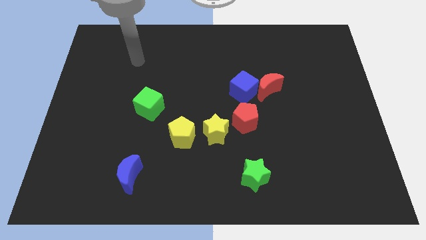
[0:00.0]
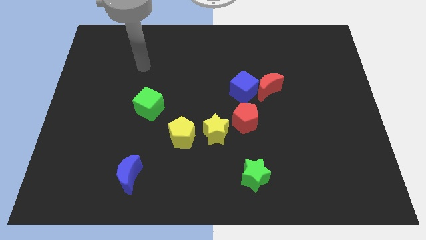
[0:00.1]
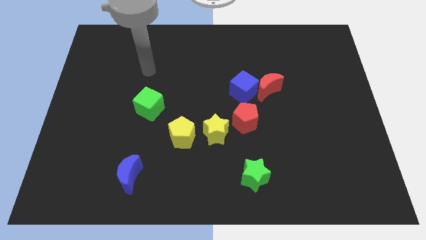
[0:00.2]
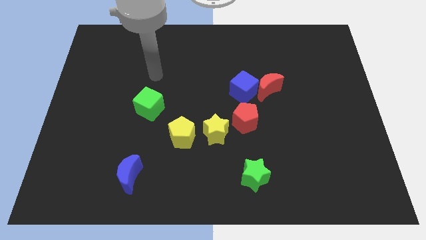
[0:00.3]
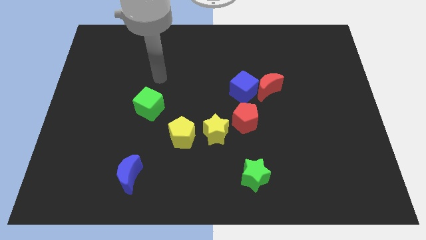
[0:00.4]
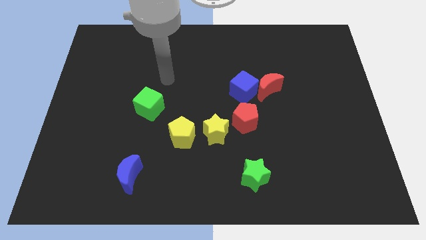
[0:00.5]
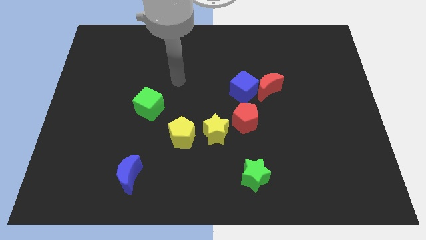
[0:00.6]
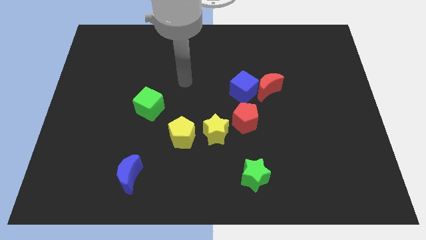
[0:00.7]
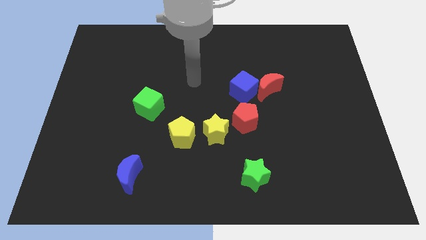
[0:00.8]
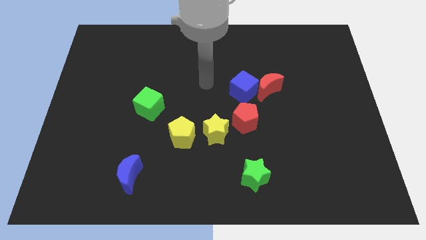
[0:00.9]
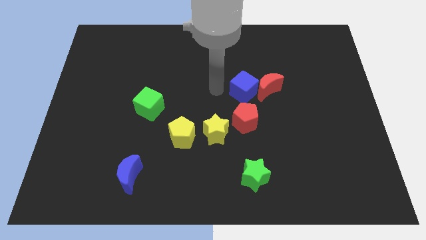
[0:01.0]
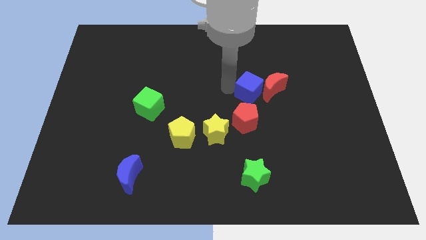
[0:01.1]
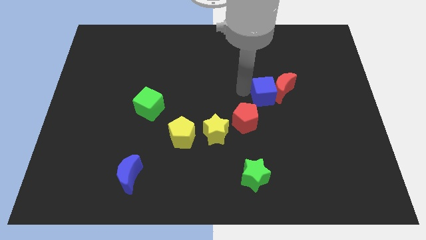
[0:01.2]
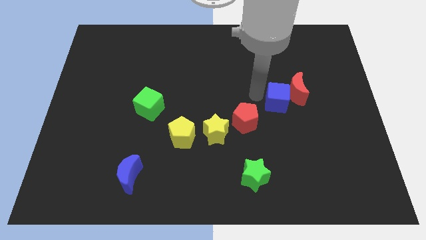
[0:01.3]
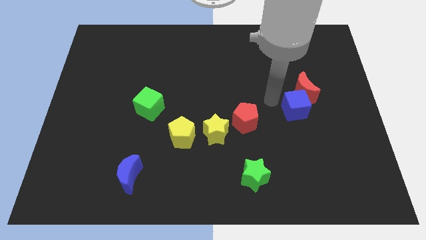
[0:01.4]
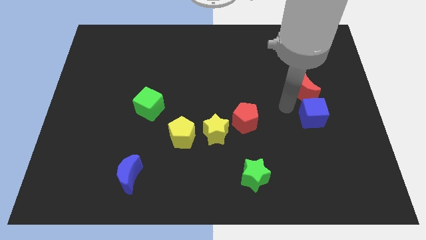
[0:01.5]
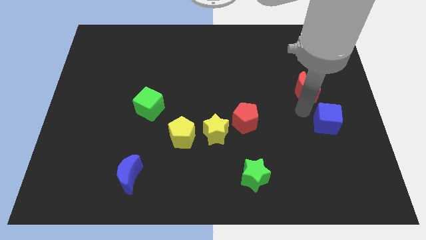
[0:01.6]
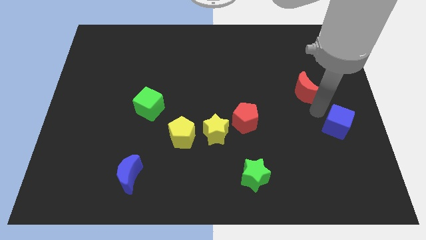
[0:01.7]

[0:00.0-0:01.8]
pull the red moon apart from the blue cube

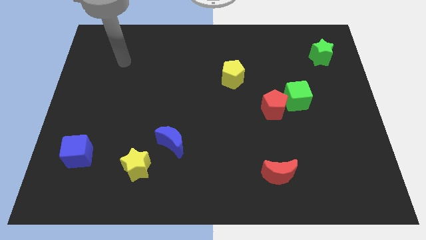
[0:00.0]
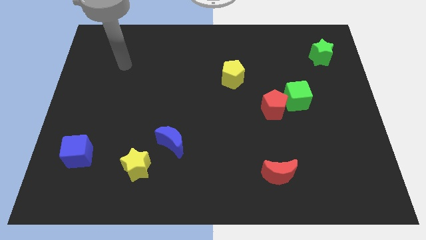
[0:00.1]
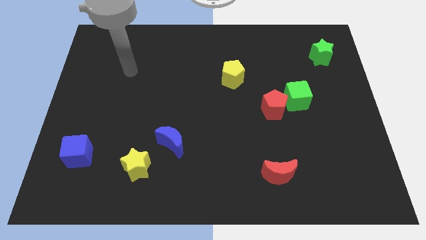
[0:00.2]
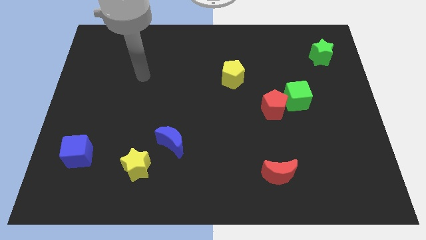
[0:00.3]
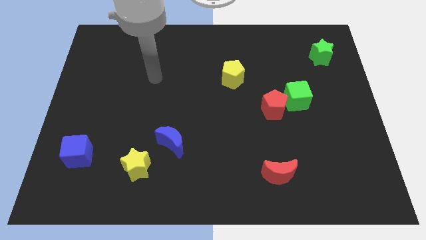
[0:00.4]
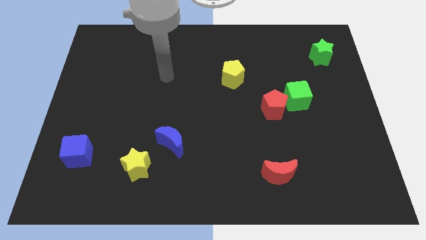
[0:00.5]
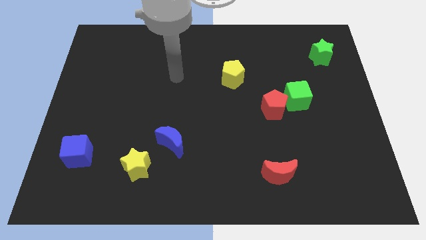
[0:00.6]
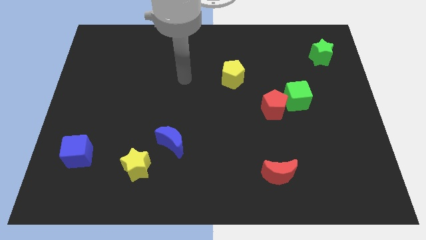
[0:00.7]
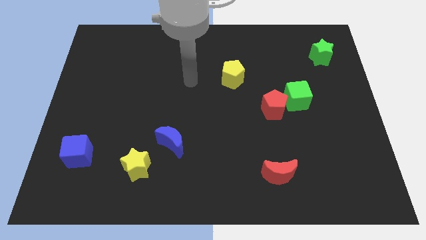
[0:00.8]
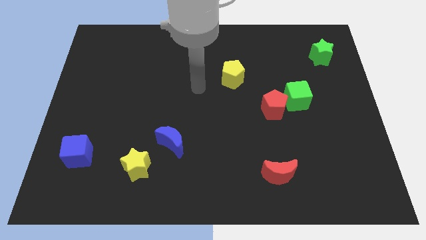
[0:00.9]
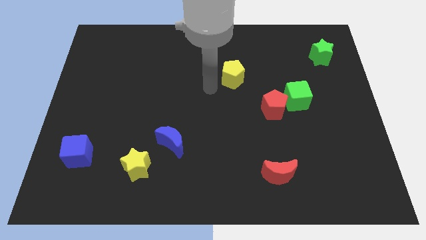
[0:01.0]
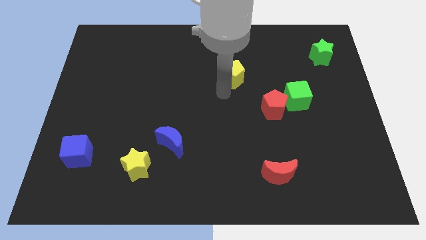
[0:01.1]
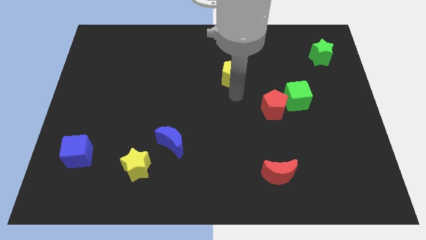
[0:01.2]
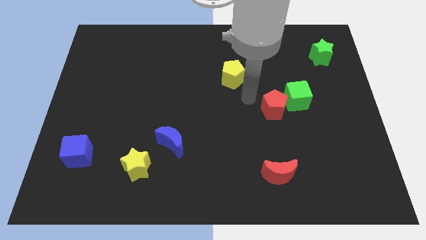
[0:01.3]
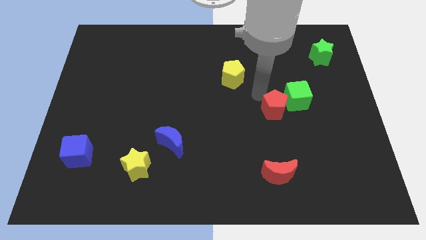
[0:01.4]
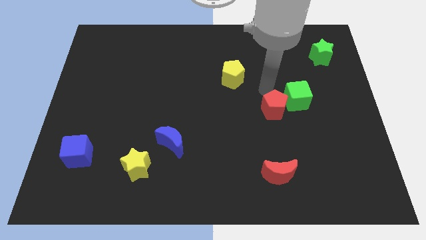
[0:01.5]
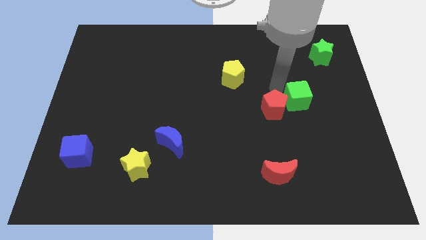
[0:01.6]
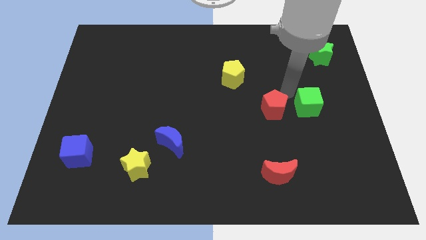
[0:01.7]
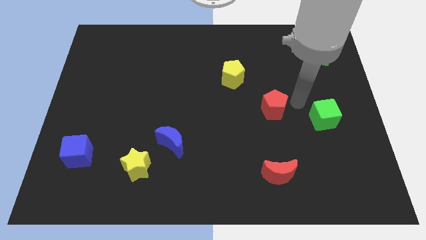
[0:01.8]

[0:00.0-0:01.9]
separate the red pentagon from the green cube

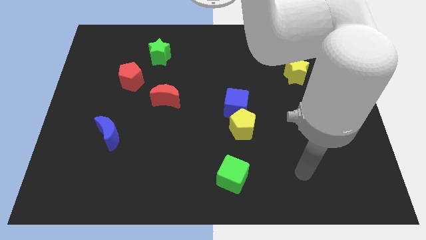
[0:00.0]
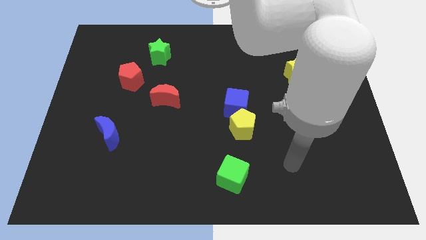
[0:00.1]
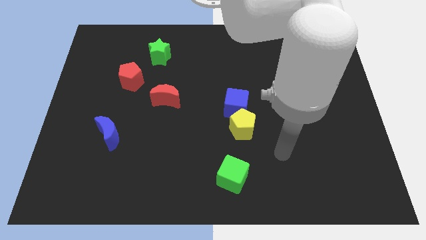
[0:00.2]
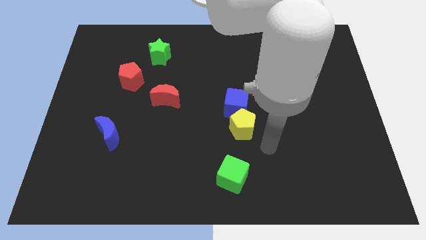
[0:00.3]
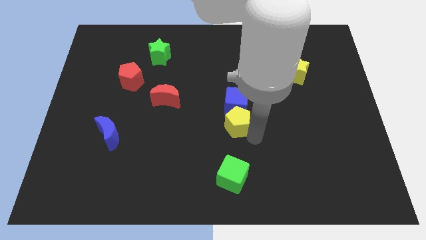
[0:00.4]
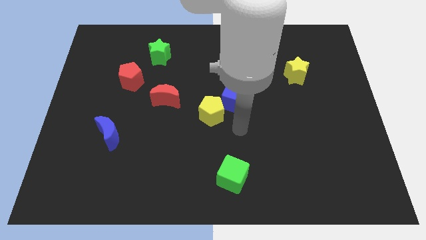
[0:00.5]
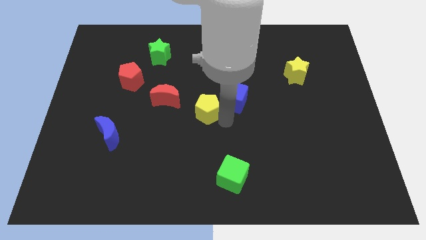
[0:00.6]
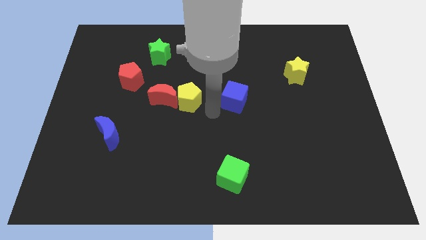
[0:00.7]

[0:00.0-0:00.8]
move the blue cube away from the yellow pentagon

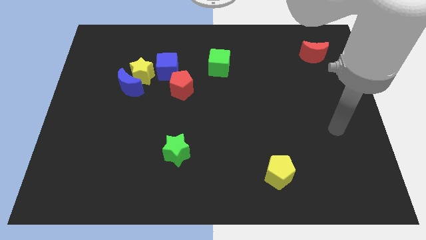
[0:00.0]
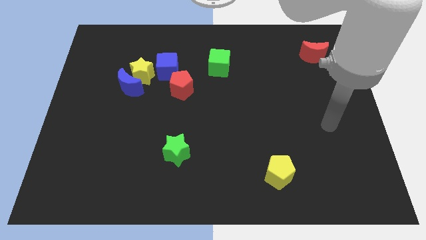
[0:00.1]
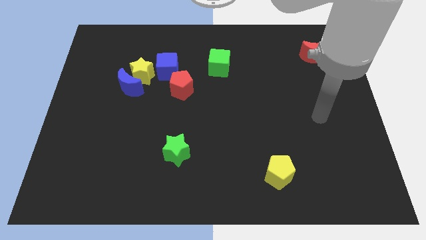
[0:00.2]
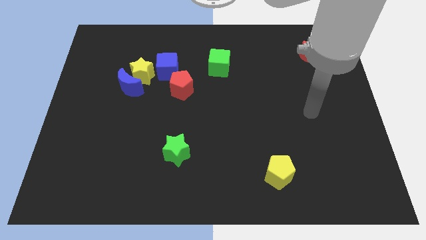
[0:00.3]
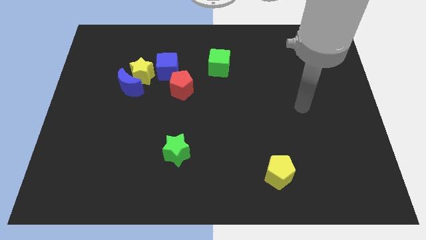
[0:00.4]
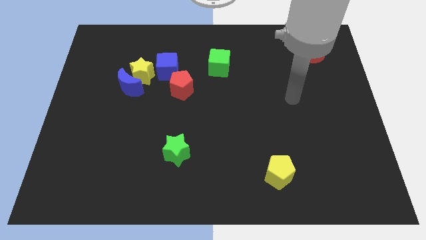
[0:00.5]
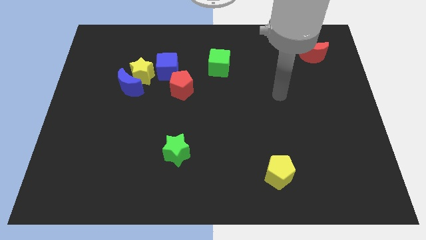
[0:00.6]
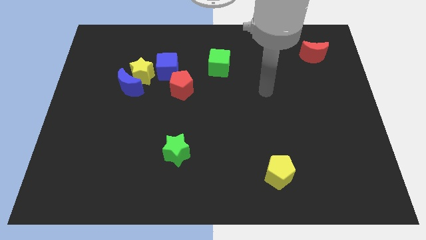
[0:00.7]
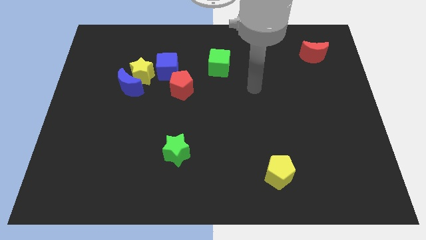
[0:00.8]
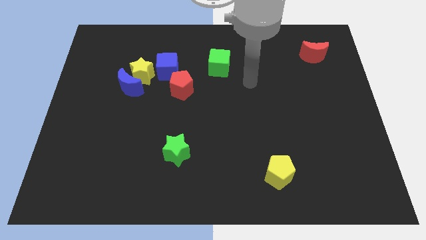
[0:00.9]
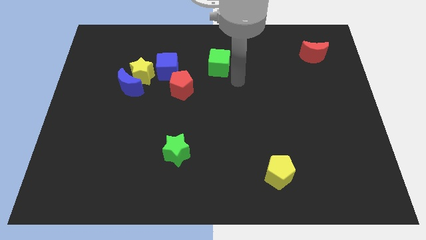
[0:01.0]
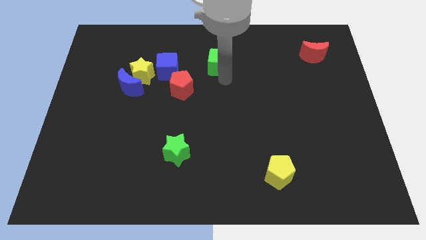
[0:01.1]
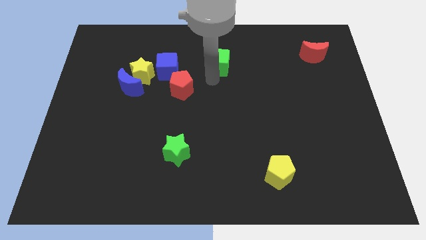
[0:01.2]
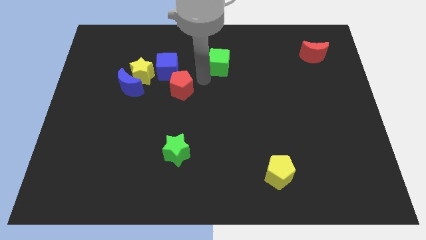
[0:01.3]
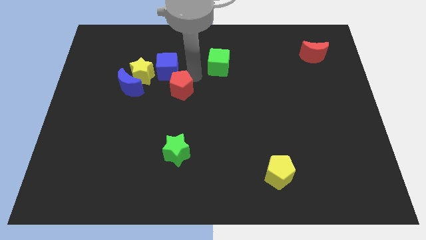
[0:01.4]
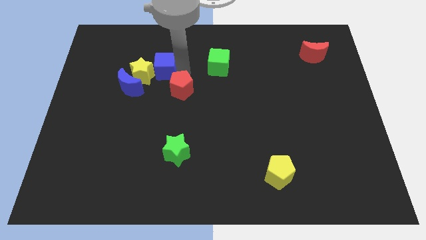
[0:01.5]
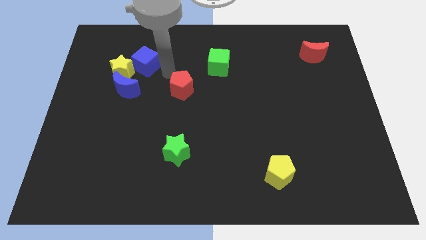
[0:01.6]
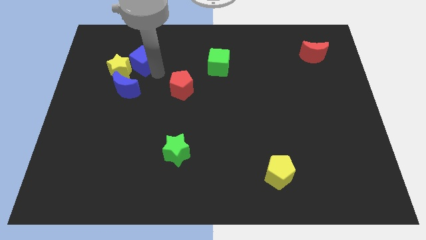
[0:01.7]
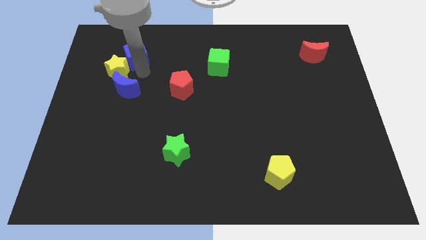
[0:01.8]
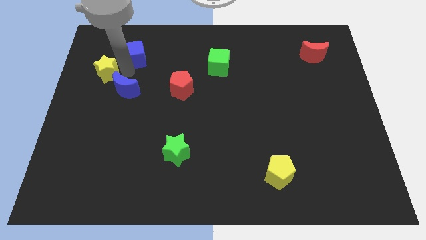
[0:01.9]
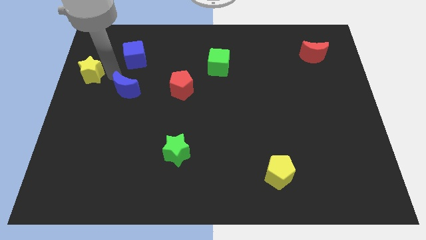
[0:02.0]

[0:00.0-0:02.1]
separate the blue moon from the yellow star

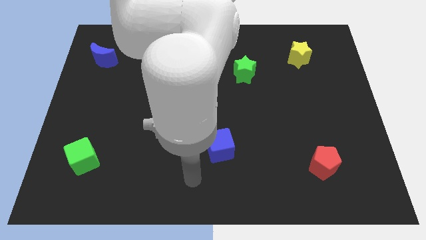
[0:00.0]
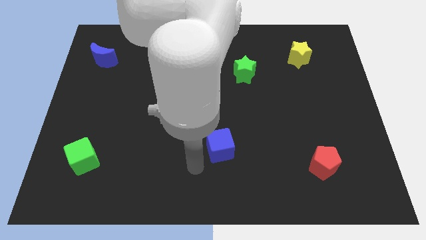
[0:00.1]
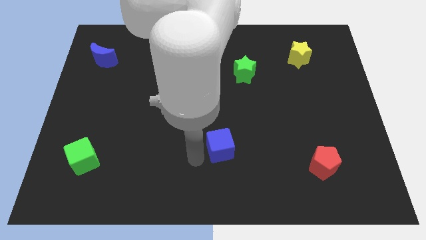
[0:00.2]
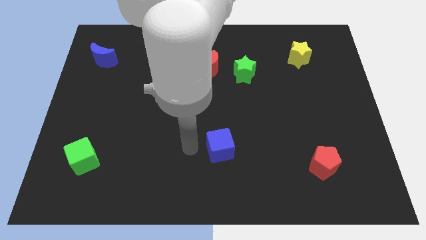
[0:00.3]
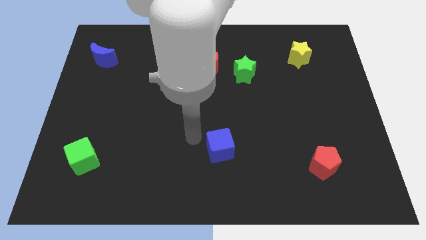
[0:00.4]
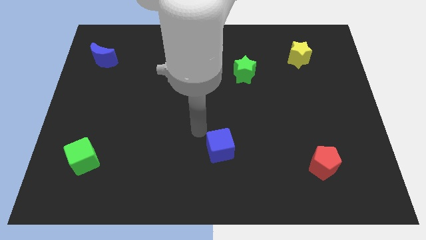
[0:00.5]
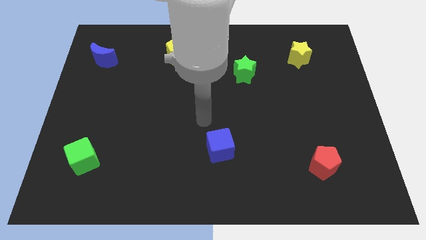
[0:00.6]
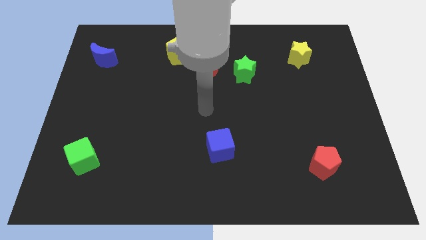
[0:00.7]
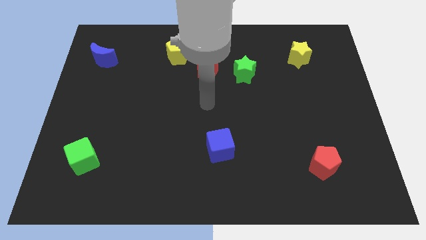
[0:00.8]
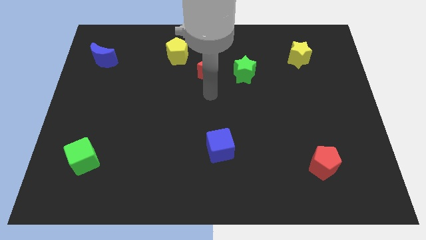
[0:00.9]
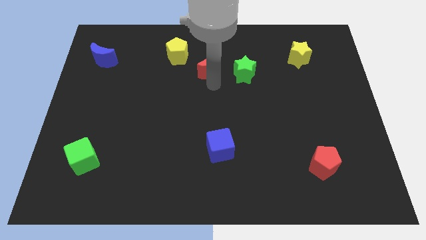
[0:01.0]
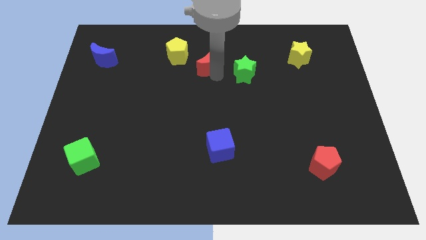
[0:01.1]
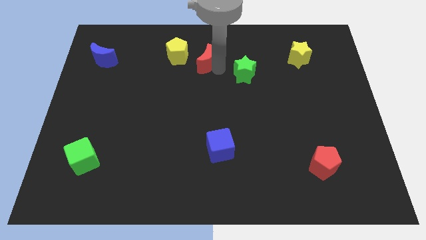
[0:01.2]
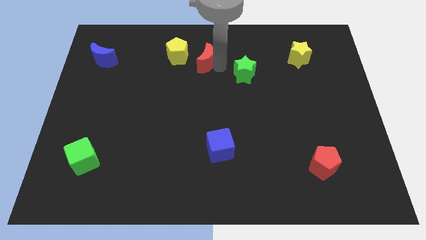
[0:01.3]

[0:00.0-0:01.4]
separate the green star from the red moon

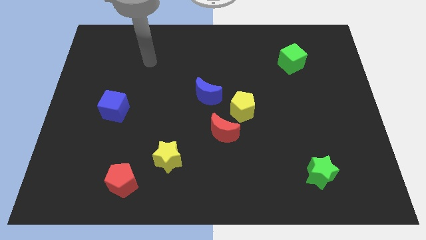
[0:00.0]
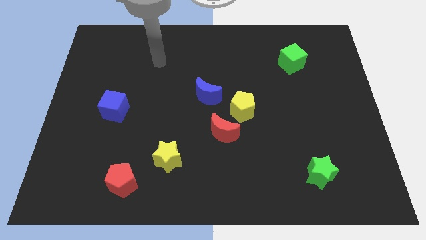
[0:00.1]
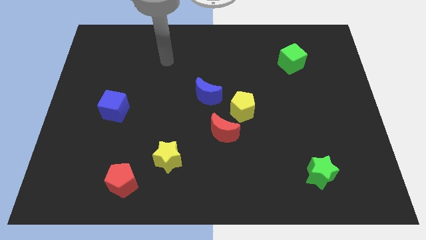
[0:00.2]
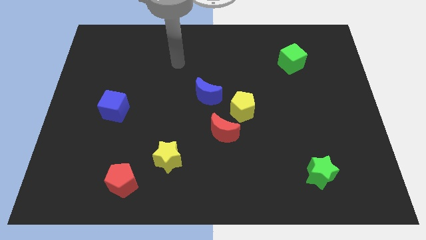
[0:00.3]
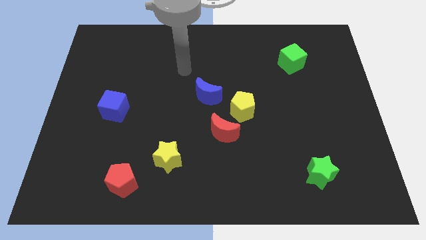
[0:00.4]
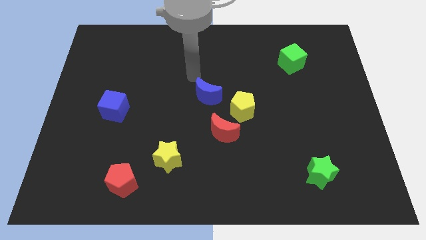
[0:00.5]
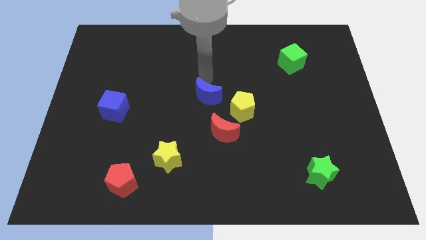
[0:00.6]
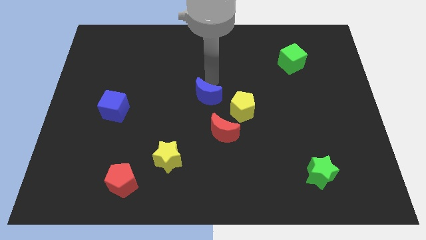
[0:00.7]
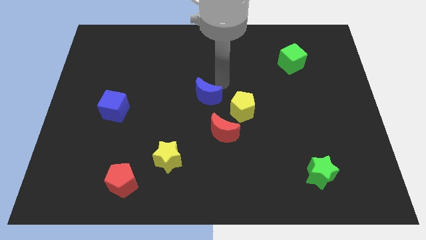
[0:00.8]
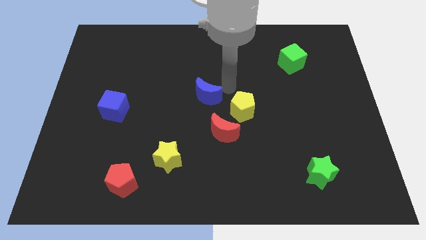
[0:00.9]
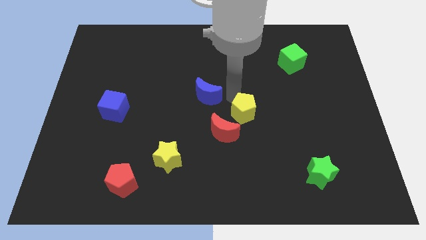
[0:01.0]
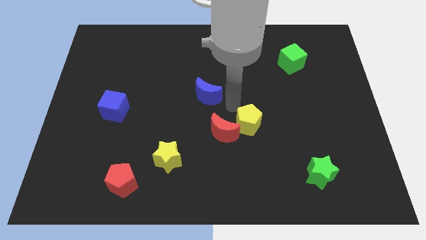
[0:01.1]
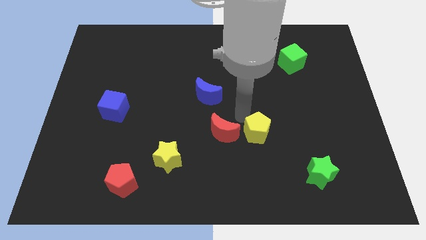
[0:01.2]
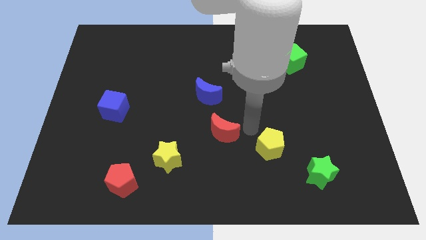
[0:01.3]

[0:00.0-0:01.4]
move the red moon away from the yellow pentagon
